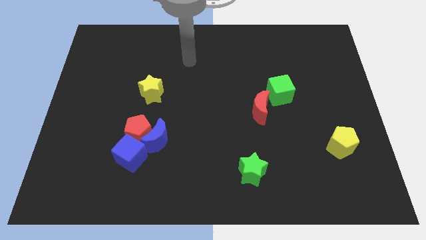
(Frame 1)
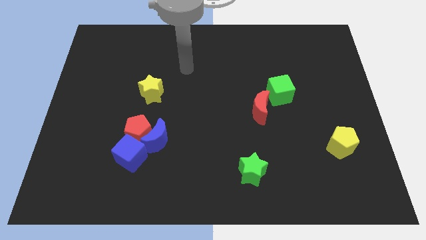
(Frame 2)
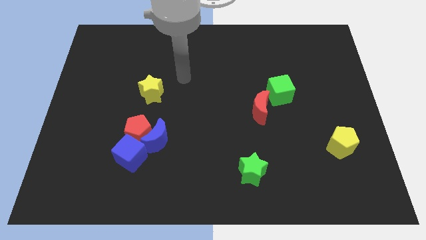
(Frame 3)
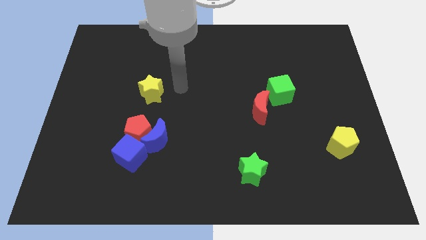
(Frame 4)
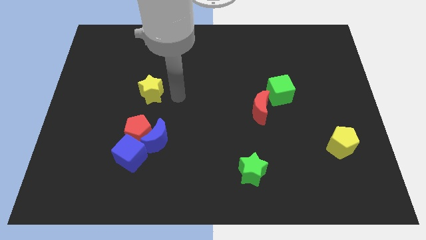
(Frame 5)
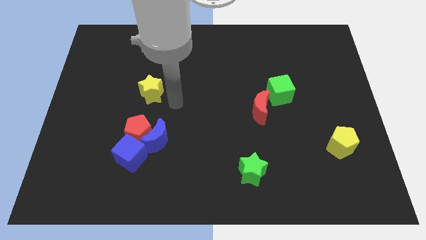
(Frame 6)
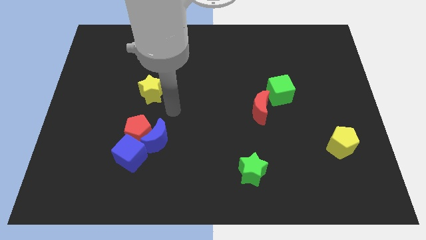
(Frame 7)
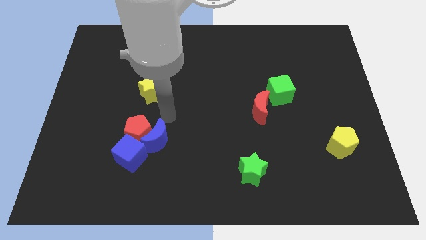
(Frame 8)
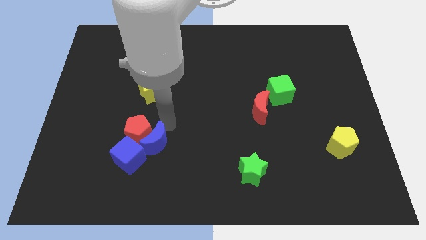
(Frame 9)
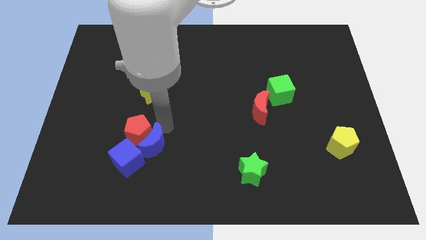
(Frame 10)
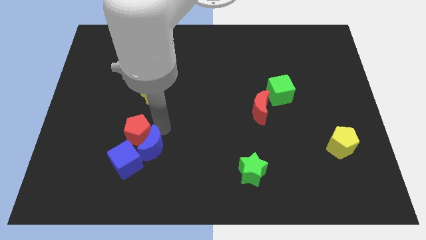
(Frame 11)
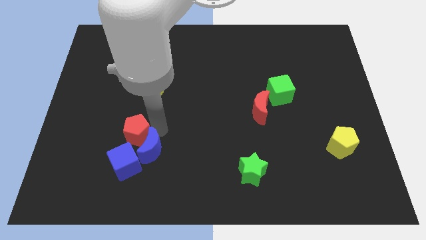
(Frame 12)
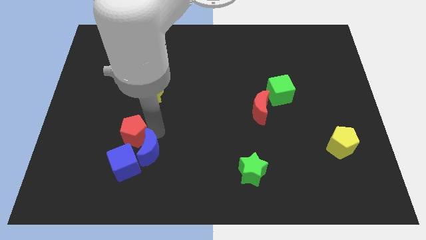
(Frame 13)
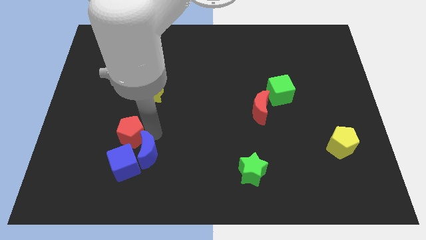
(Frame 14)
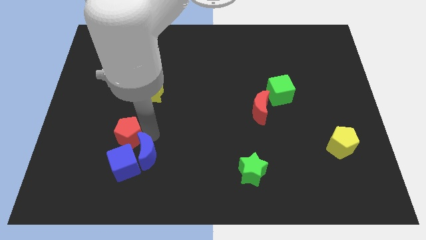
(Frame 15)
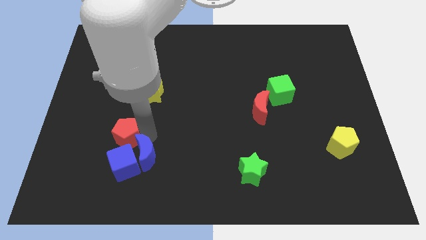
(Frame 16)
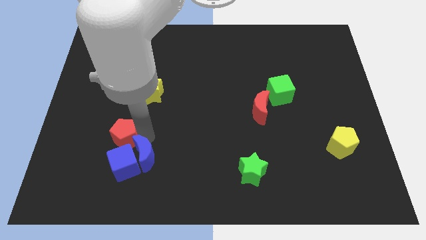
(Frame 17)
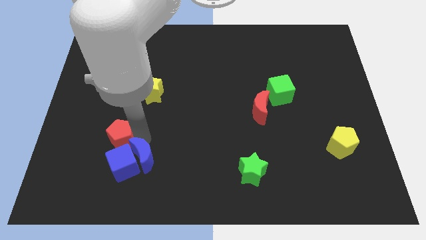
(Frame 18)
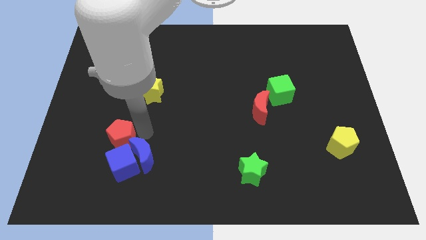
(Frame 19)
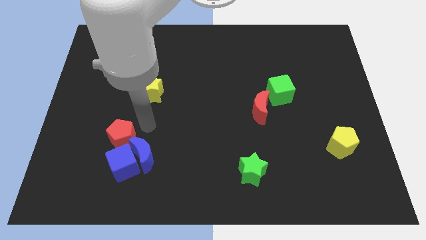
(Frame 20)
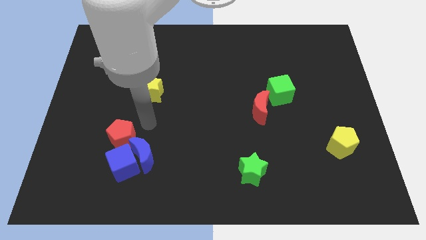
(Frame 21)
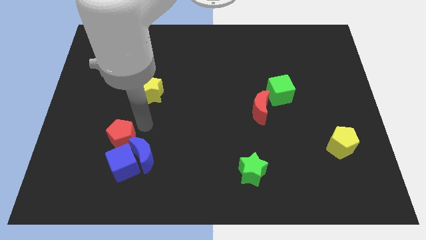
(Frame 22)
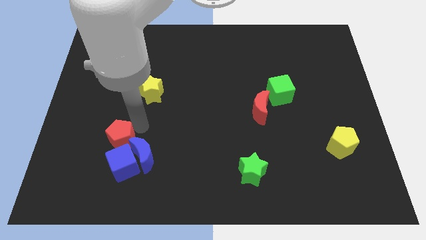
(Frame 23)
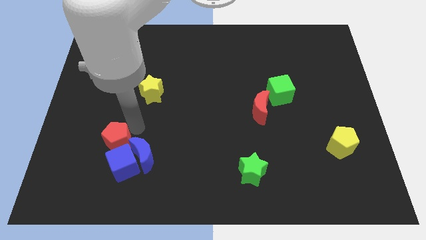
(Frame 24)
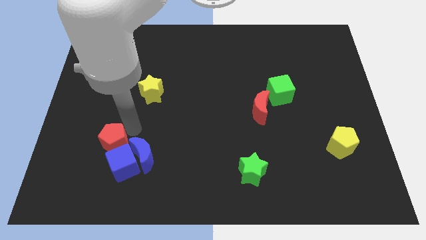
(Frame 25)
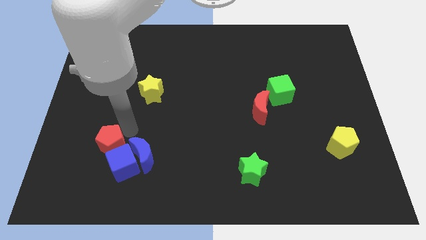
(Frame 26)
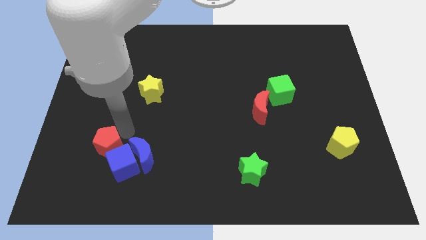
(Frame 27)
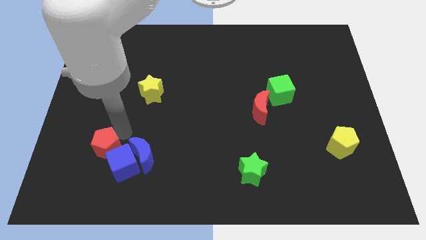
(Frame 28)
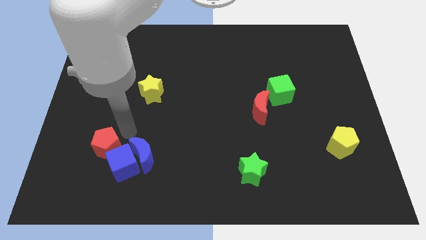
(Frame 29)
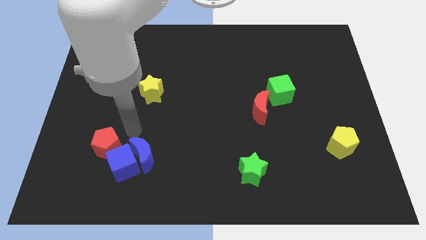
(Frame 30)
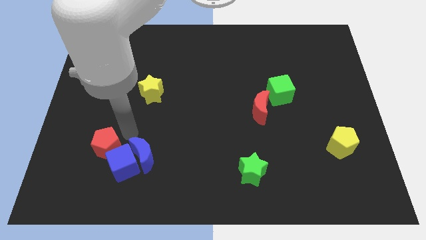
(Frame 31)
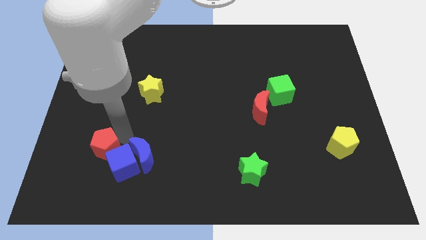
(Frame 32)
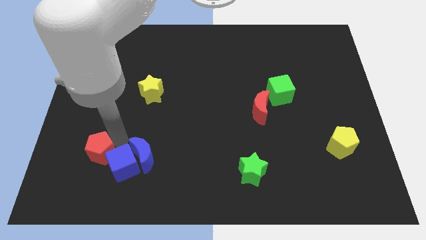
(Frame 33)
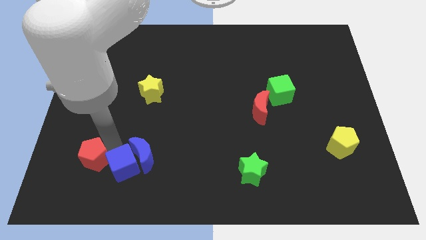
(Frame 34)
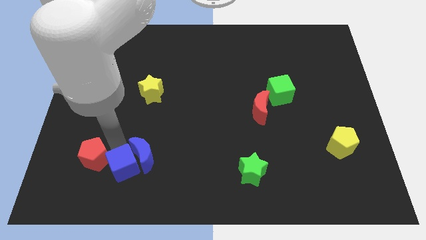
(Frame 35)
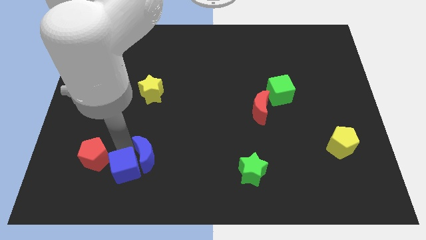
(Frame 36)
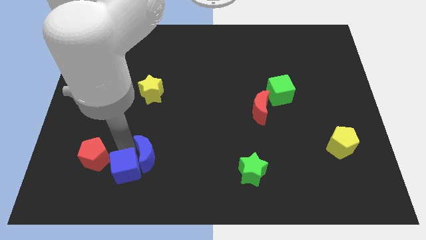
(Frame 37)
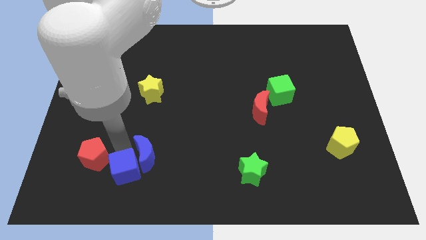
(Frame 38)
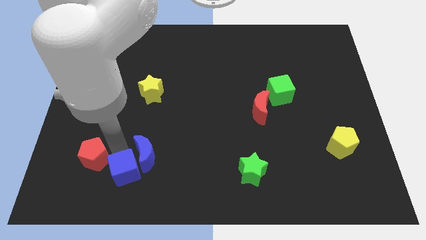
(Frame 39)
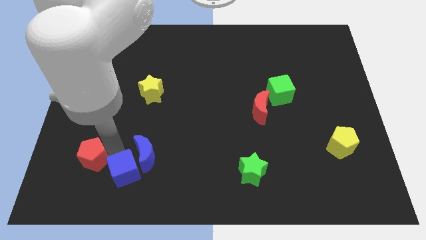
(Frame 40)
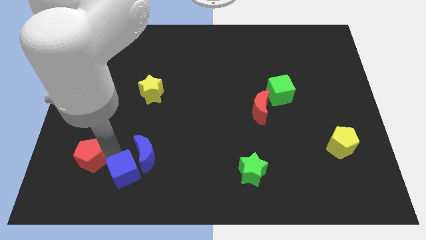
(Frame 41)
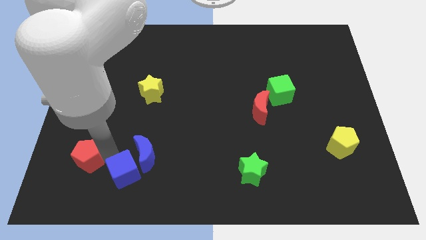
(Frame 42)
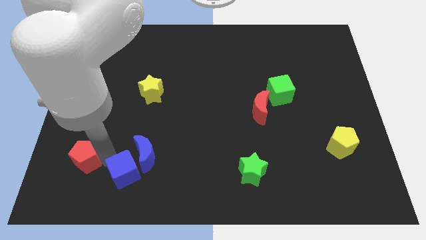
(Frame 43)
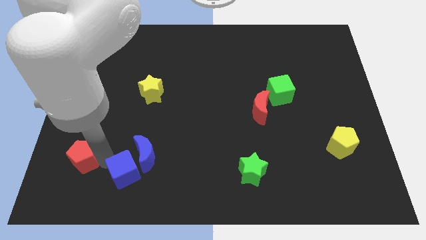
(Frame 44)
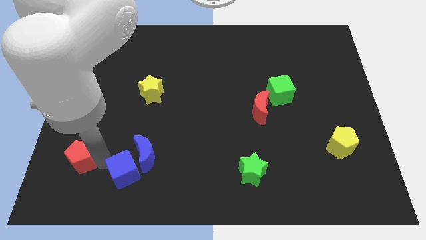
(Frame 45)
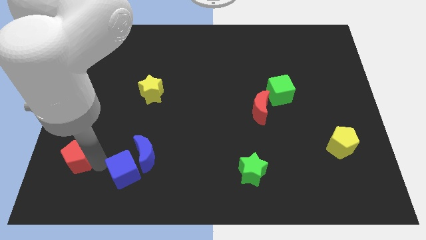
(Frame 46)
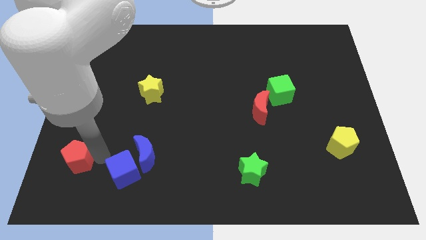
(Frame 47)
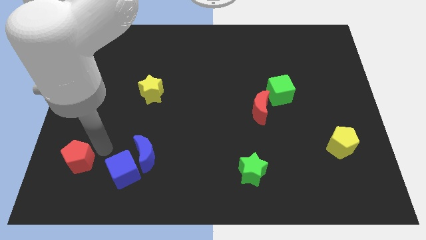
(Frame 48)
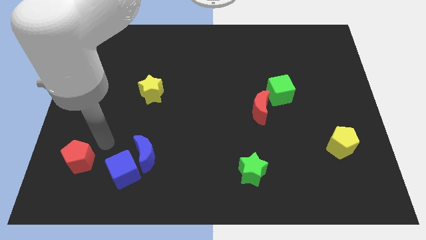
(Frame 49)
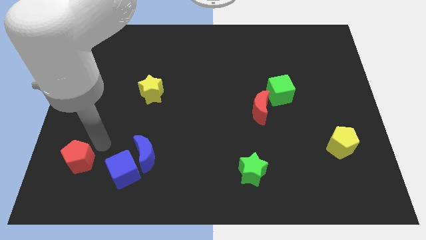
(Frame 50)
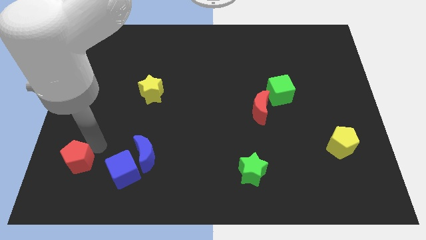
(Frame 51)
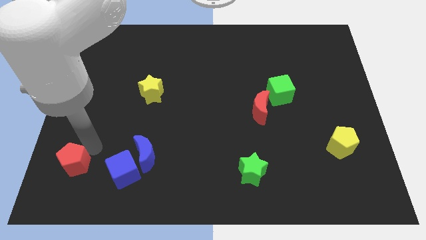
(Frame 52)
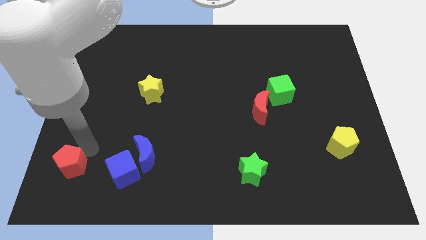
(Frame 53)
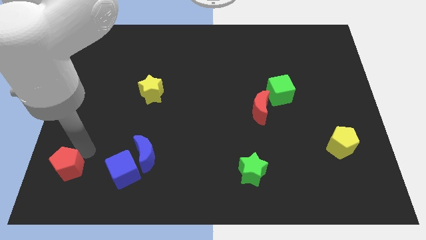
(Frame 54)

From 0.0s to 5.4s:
move the red pentagon to the bottom left corner
